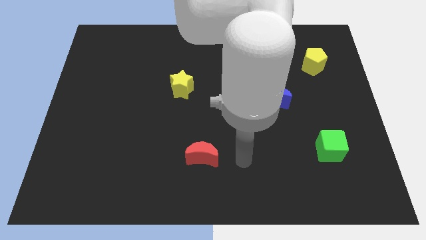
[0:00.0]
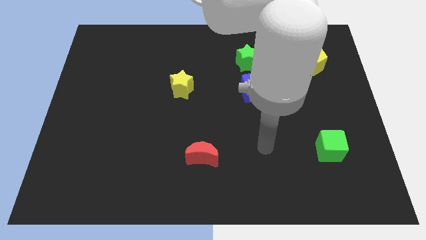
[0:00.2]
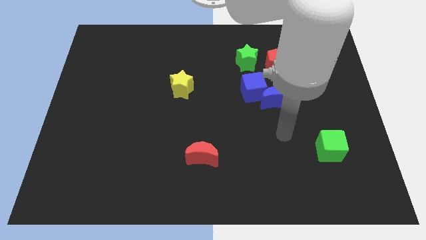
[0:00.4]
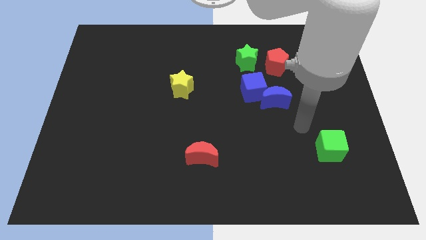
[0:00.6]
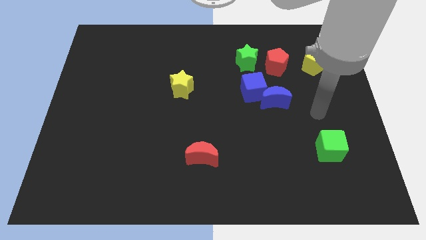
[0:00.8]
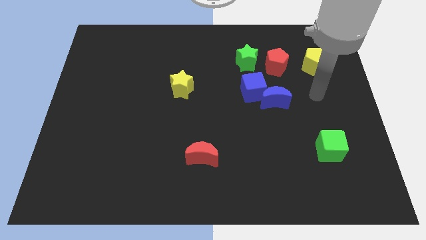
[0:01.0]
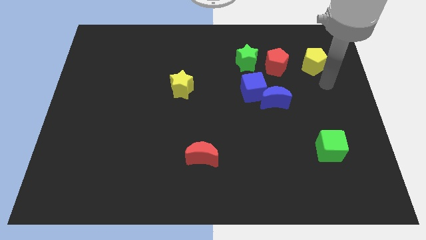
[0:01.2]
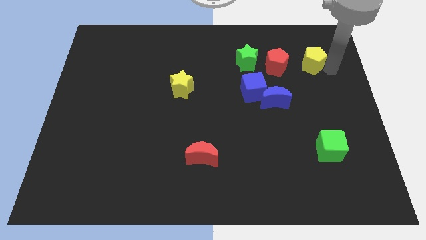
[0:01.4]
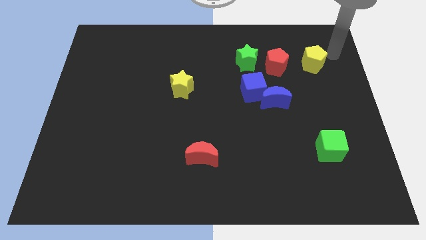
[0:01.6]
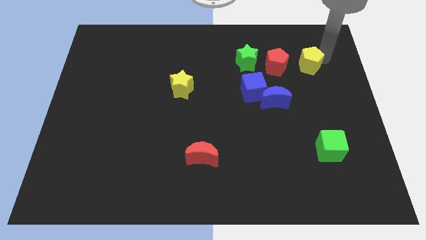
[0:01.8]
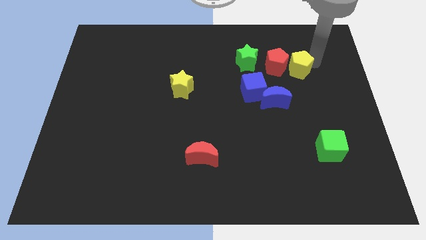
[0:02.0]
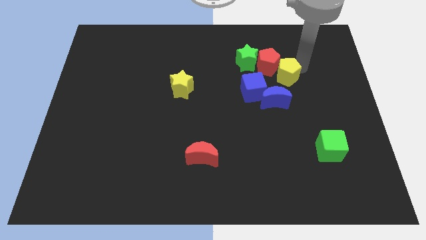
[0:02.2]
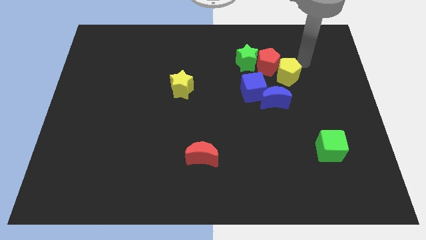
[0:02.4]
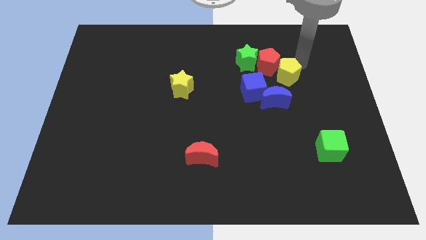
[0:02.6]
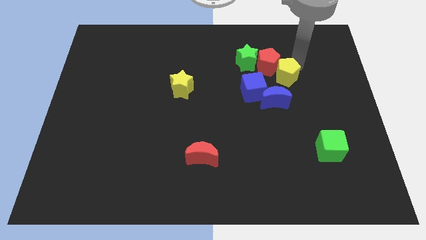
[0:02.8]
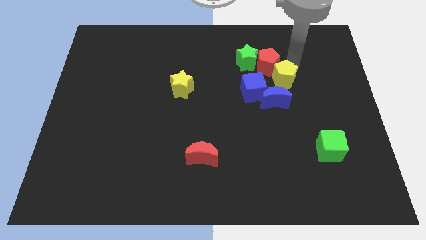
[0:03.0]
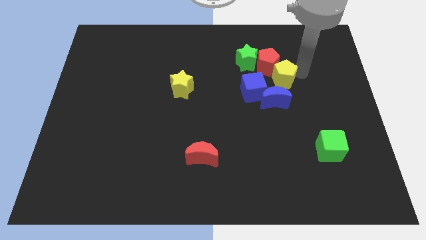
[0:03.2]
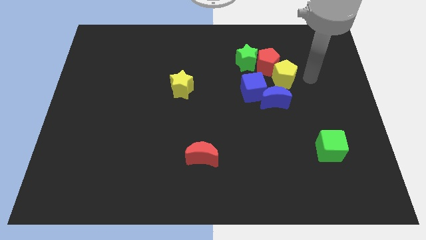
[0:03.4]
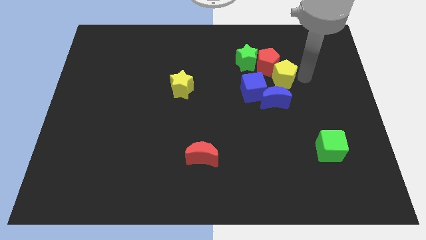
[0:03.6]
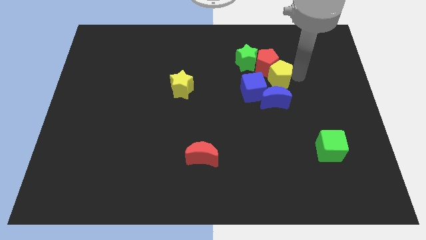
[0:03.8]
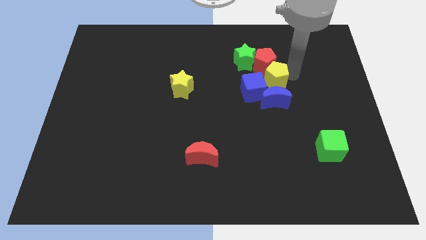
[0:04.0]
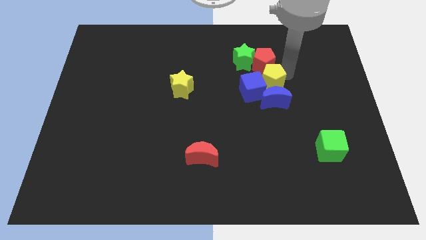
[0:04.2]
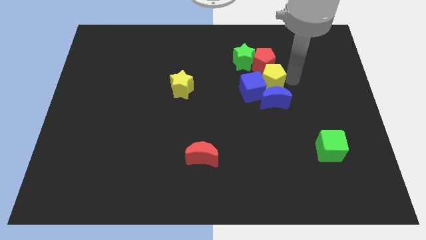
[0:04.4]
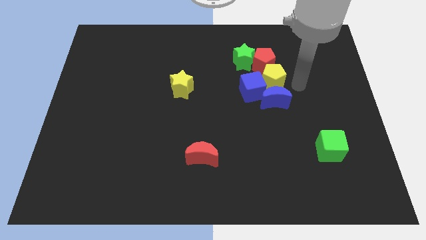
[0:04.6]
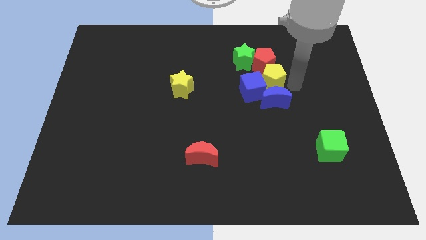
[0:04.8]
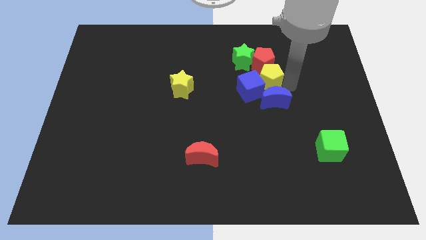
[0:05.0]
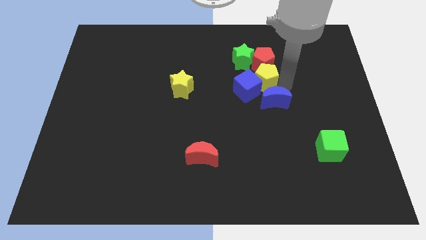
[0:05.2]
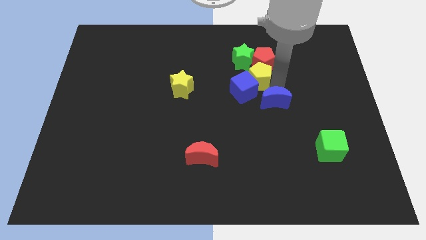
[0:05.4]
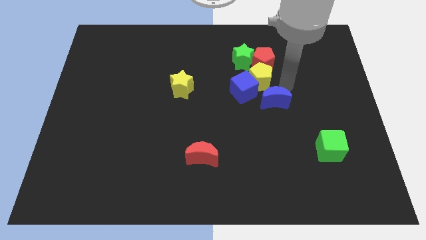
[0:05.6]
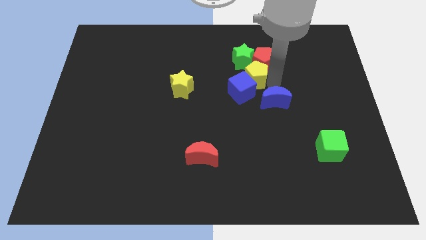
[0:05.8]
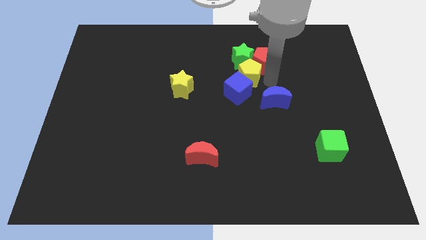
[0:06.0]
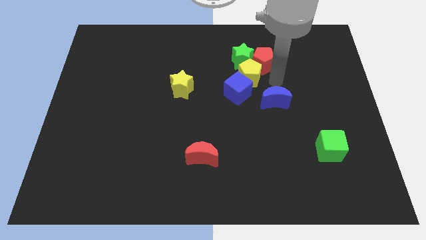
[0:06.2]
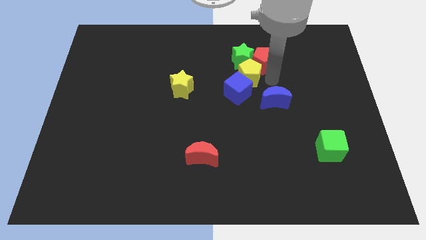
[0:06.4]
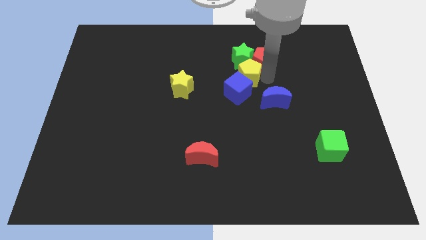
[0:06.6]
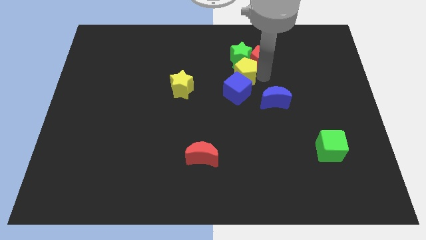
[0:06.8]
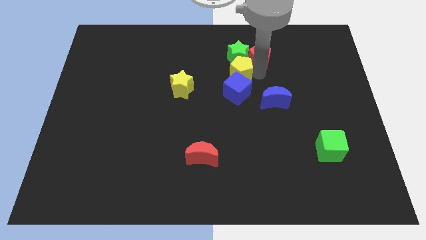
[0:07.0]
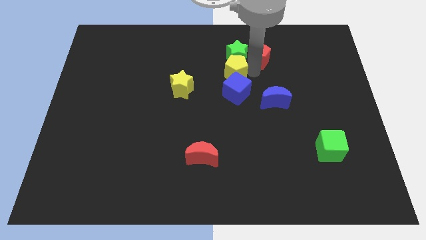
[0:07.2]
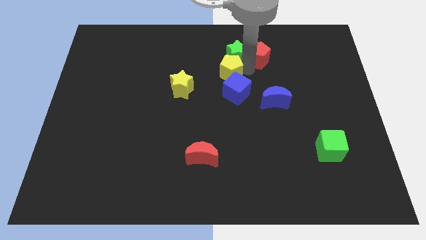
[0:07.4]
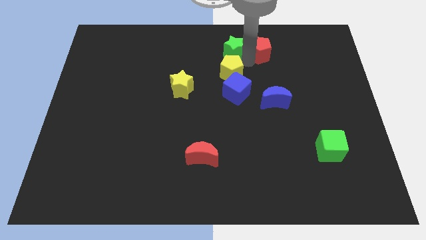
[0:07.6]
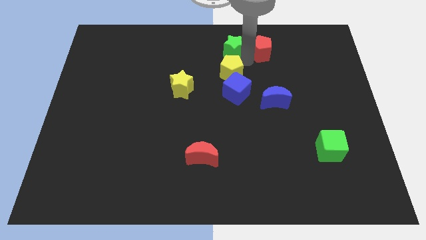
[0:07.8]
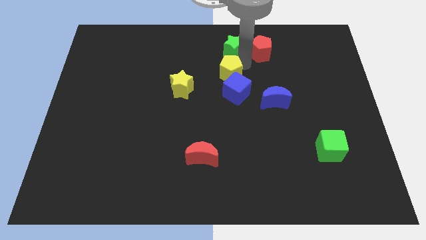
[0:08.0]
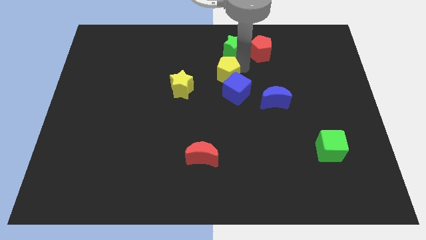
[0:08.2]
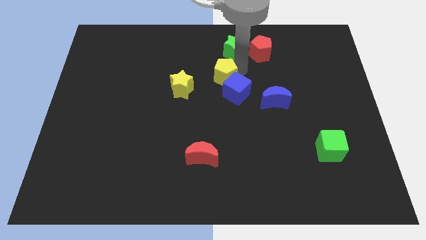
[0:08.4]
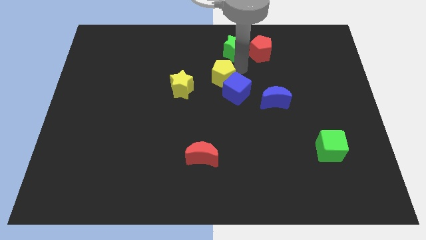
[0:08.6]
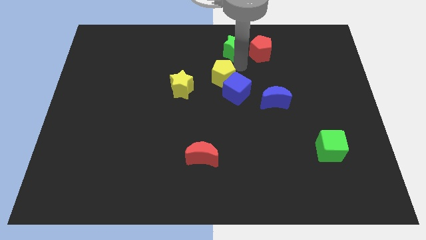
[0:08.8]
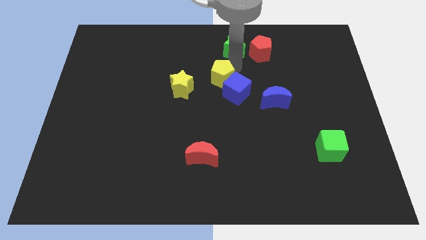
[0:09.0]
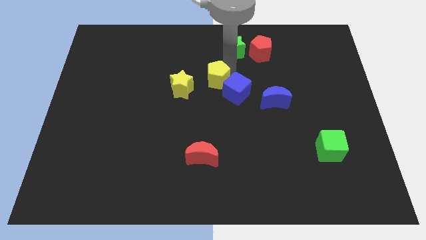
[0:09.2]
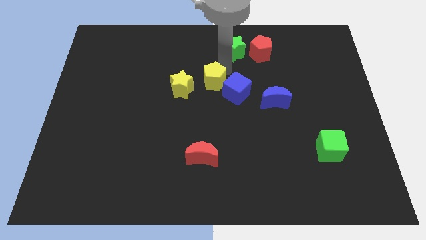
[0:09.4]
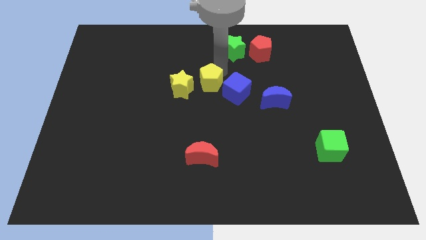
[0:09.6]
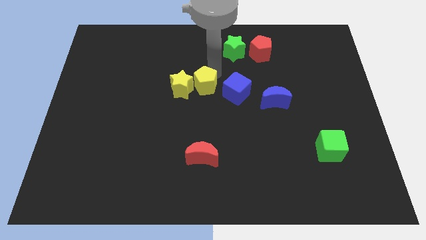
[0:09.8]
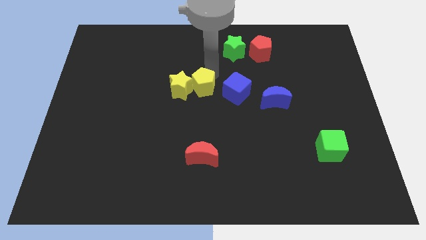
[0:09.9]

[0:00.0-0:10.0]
put the yellow pentagon to the bottom right of the yellow star

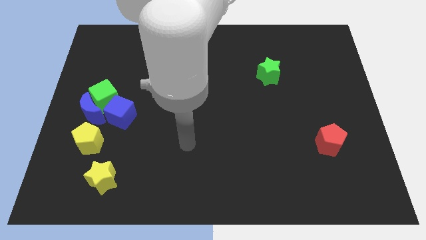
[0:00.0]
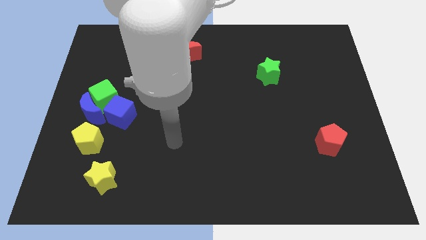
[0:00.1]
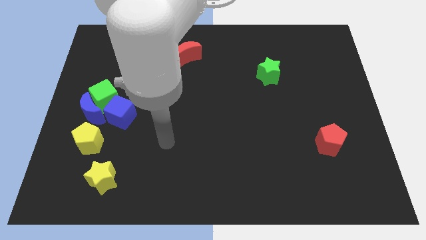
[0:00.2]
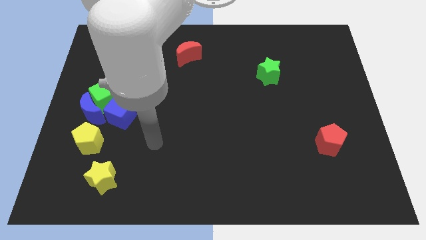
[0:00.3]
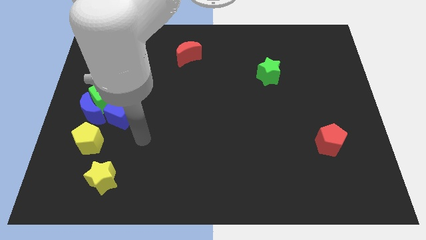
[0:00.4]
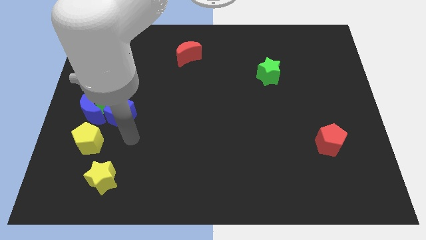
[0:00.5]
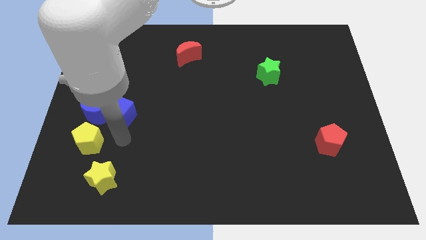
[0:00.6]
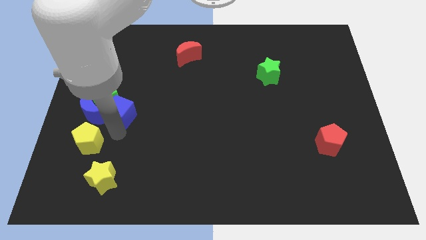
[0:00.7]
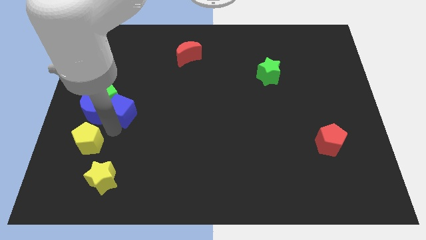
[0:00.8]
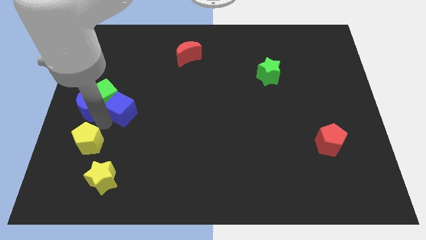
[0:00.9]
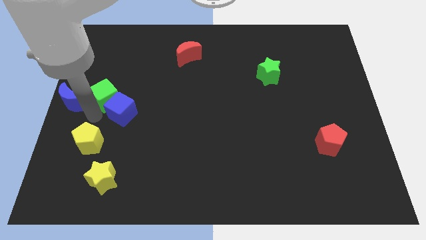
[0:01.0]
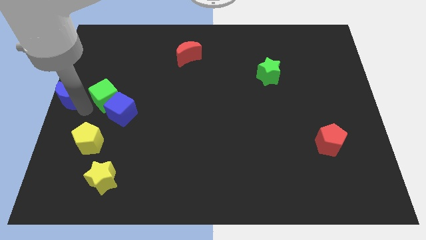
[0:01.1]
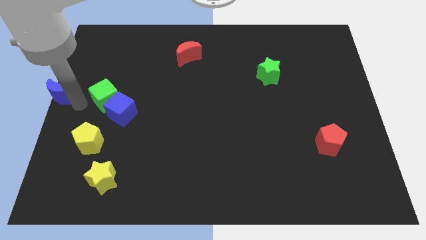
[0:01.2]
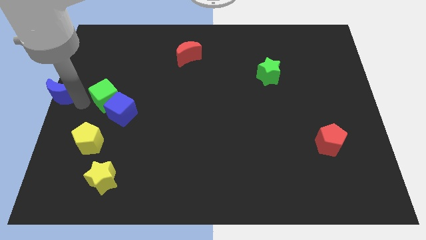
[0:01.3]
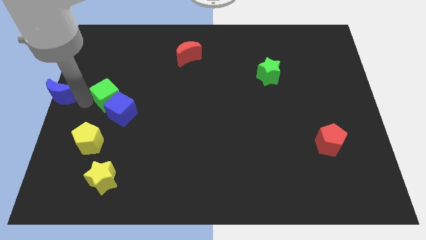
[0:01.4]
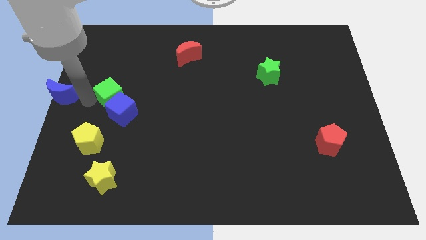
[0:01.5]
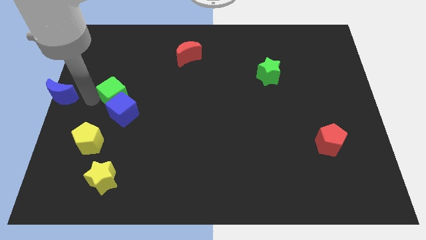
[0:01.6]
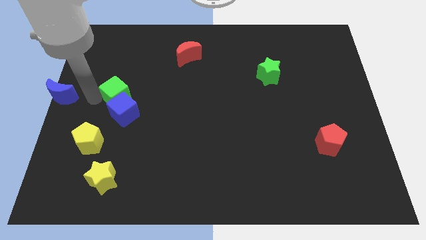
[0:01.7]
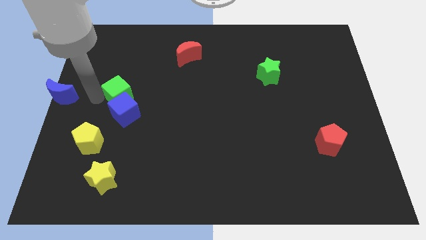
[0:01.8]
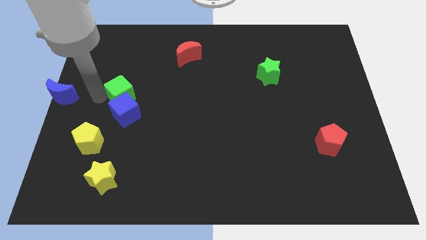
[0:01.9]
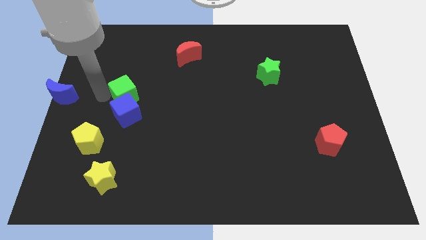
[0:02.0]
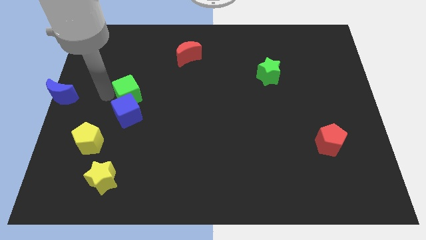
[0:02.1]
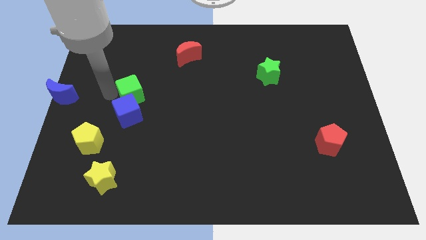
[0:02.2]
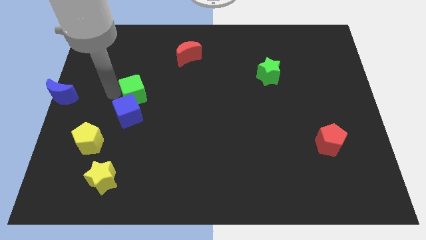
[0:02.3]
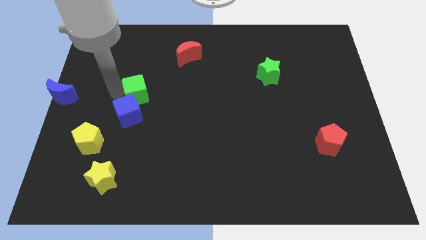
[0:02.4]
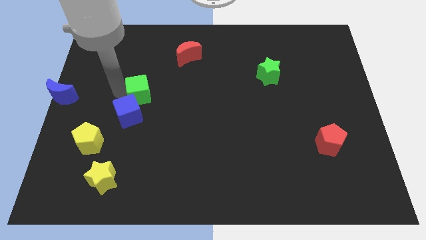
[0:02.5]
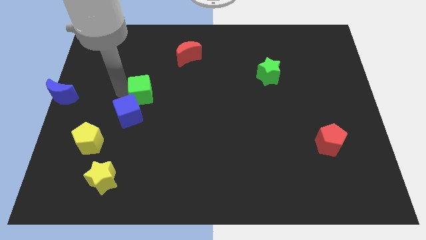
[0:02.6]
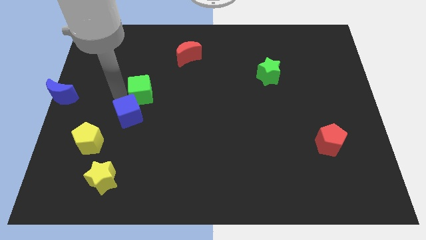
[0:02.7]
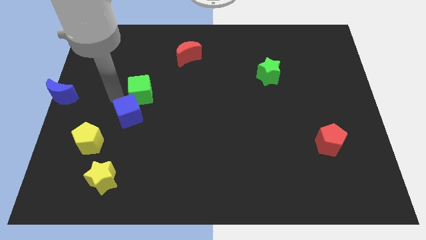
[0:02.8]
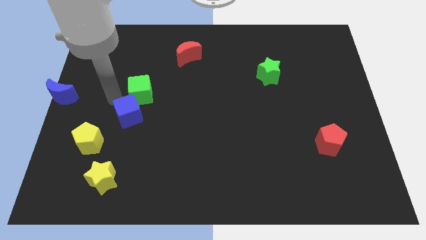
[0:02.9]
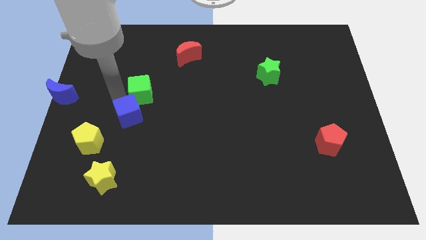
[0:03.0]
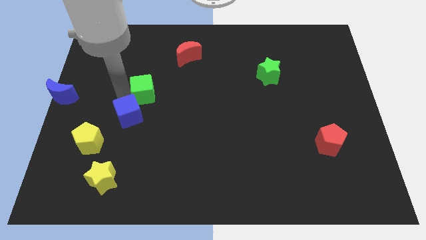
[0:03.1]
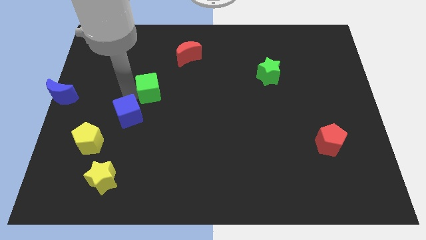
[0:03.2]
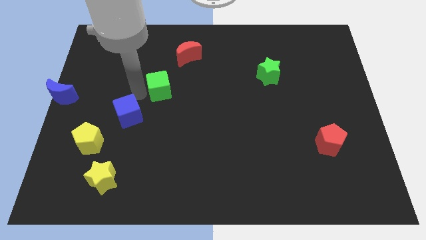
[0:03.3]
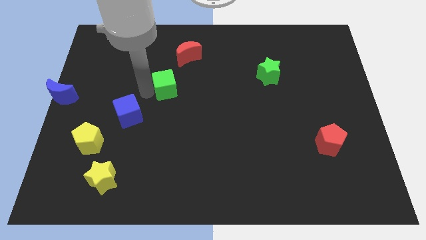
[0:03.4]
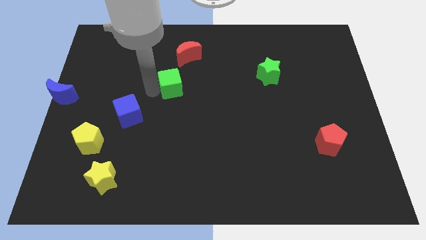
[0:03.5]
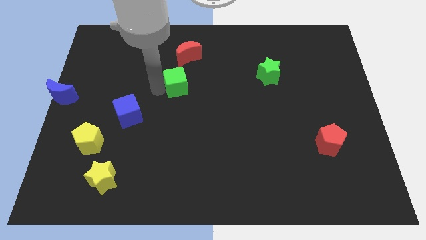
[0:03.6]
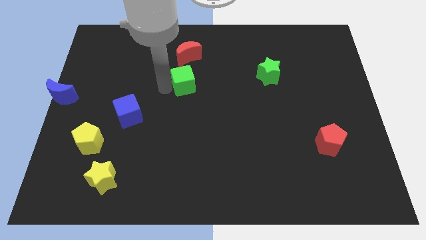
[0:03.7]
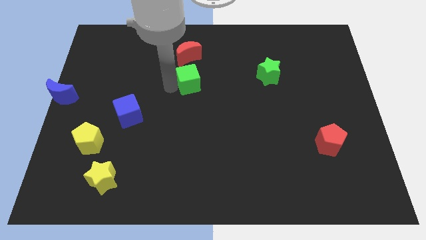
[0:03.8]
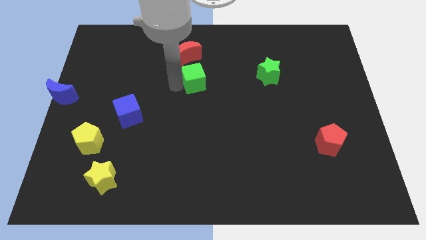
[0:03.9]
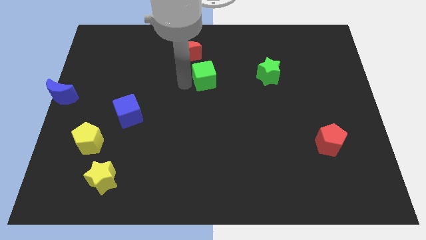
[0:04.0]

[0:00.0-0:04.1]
move the green cube left of the green star
